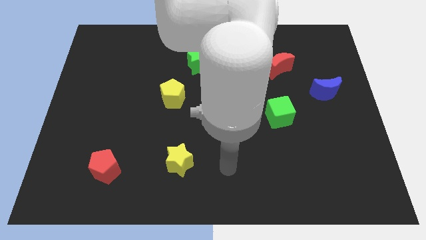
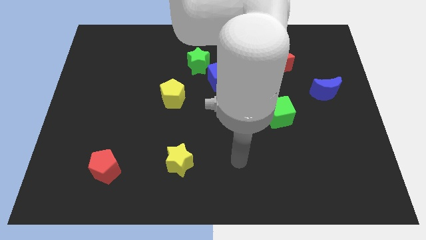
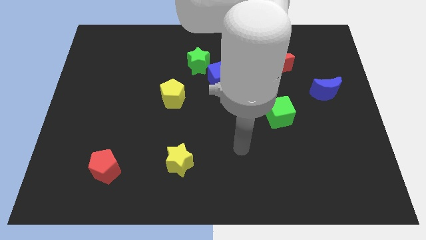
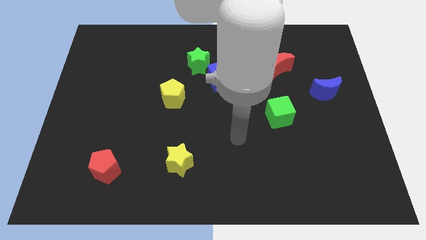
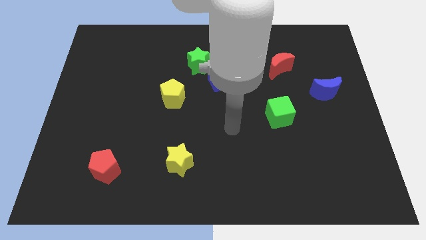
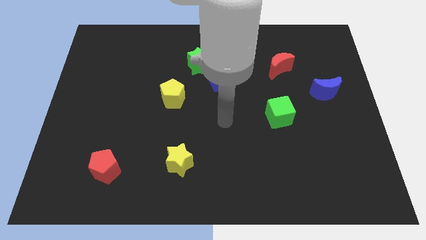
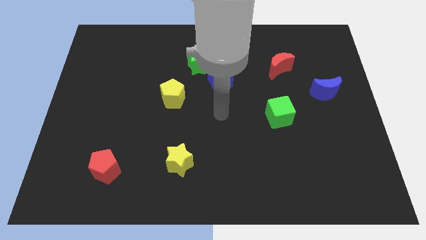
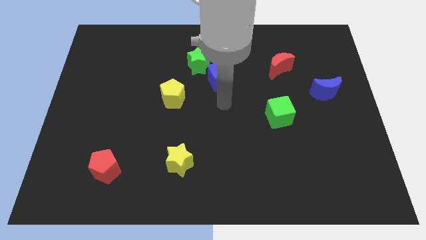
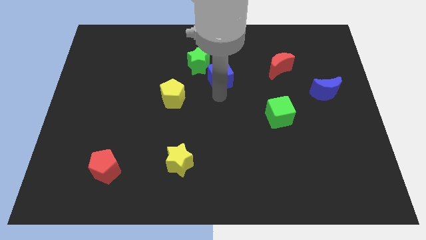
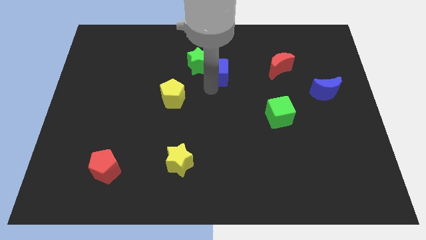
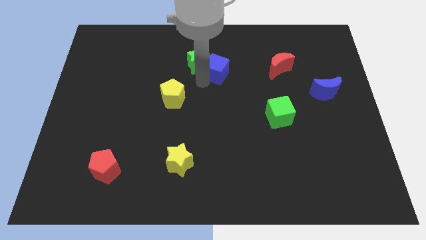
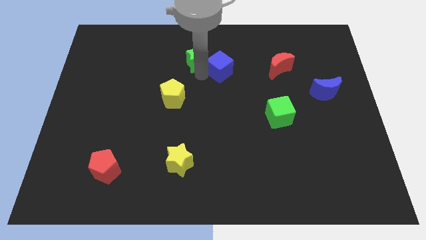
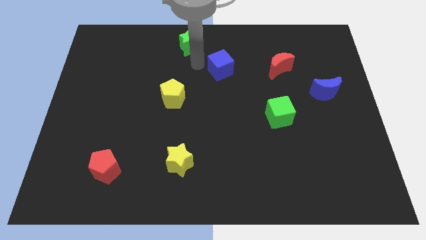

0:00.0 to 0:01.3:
move the blue cube away from the green star

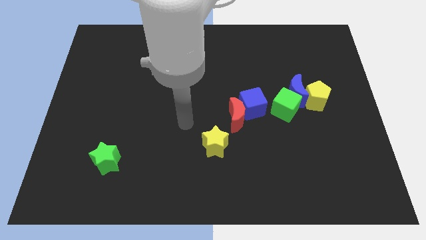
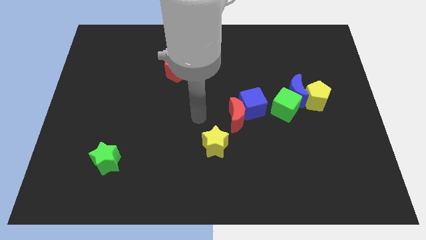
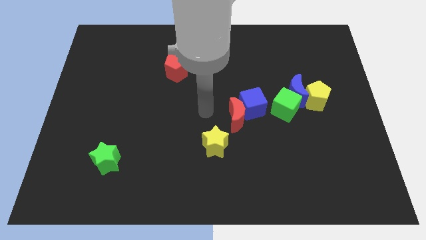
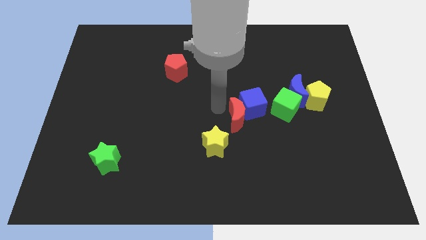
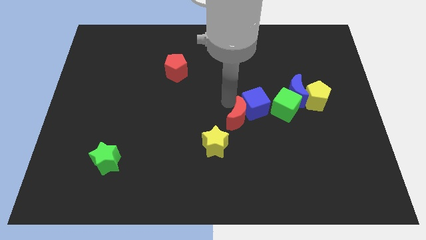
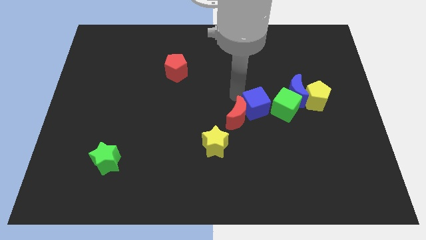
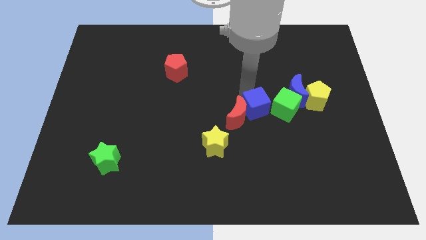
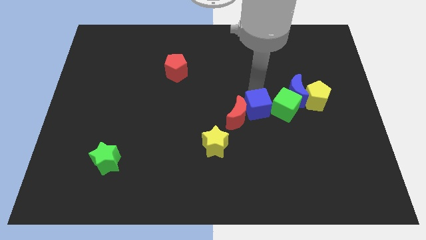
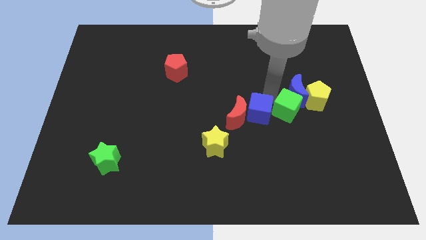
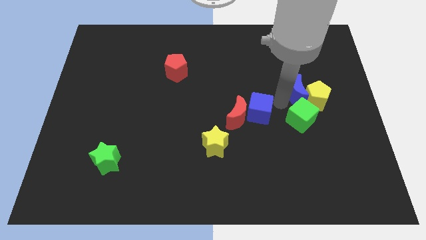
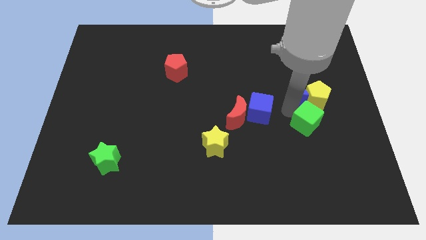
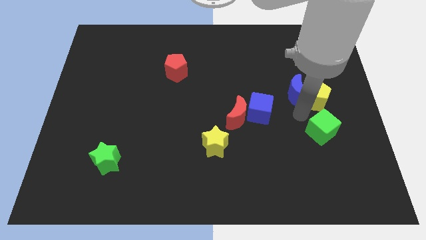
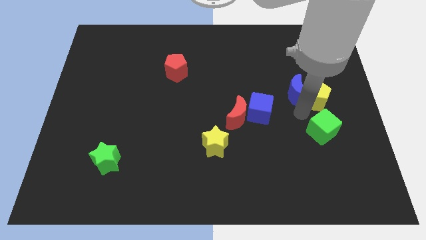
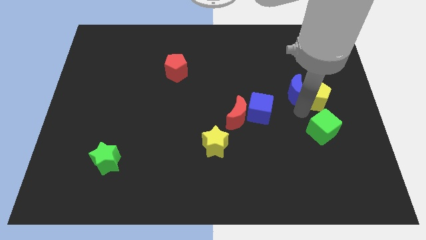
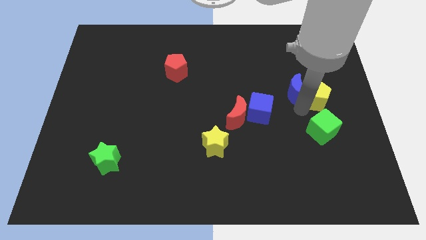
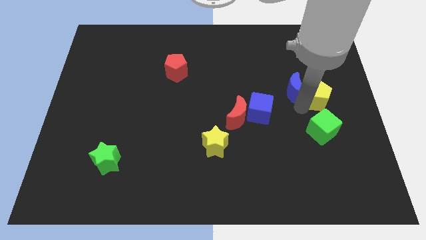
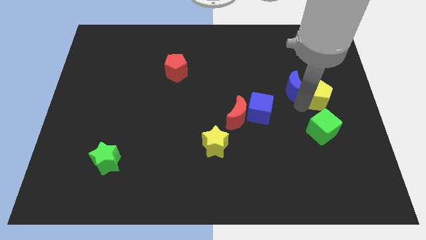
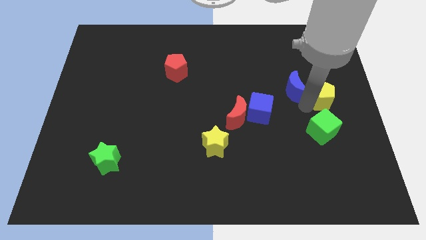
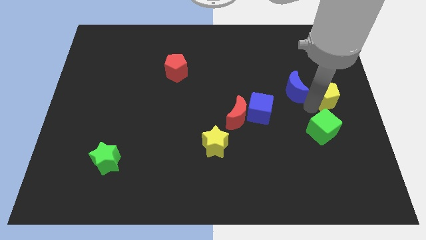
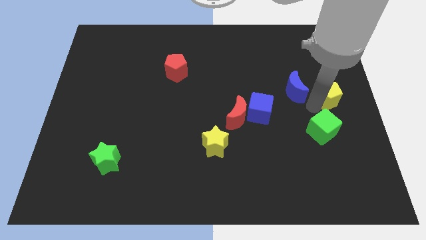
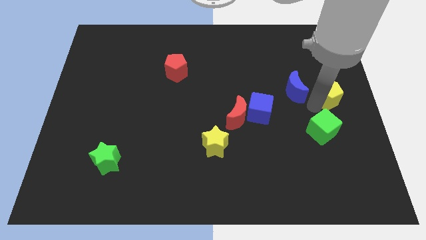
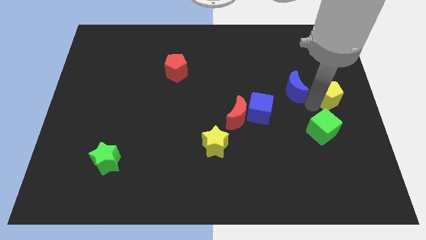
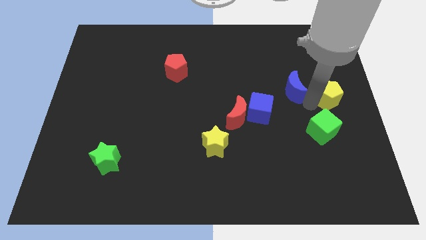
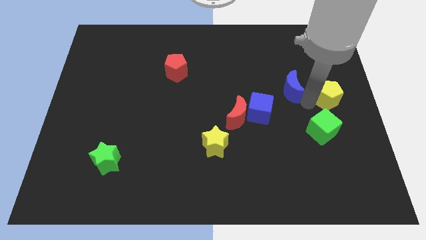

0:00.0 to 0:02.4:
separate the blue moon from the yellow pentagon and green cube

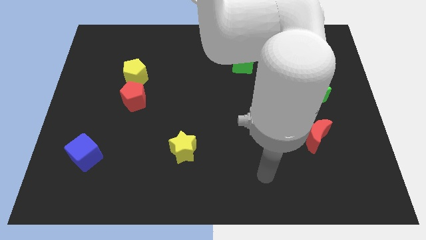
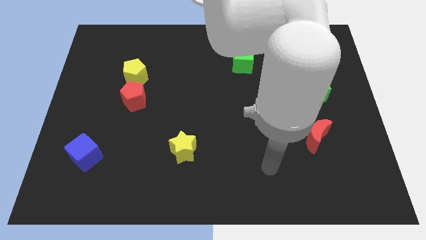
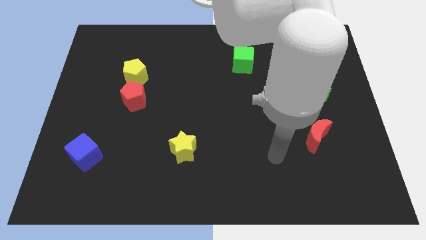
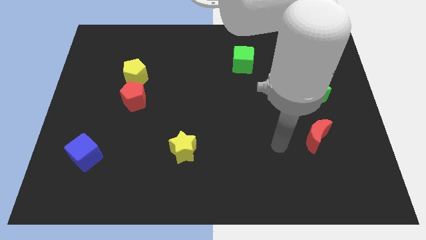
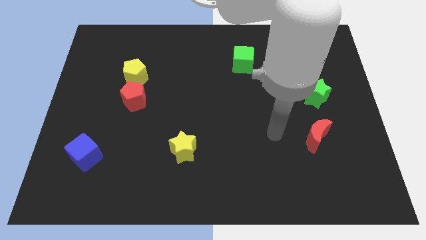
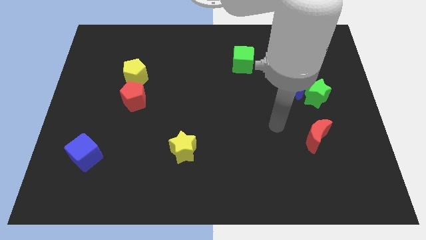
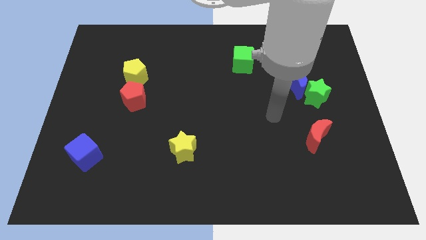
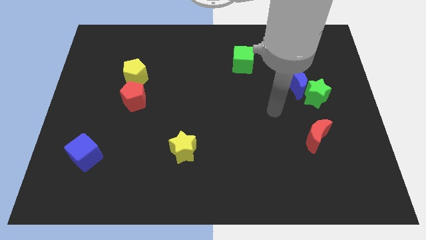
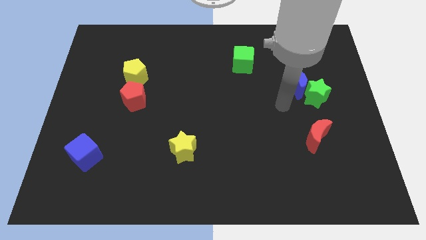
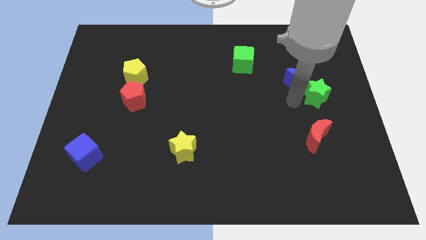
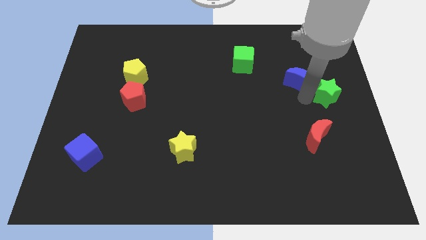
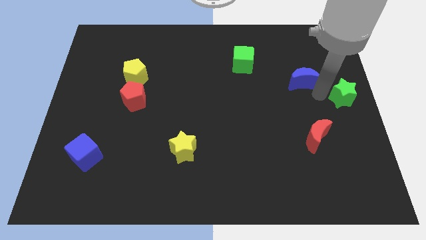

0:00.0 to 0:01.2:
separate the blue moon from the green star

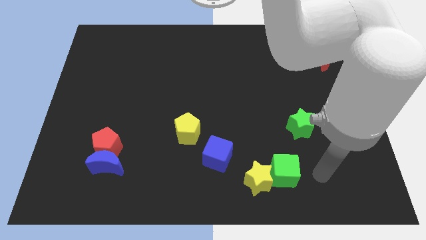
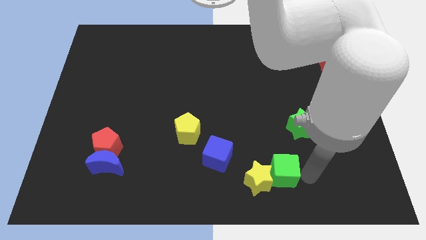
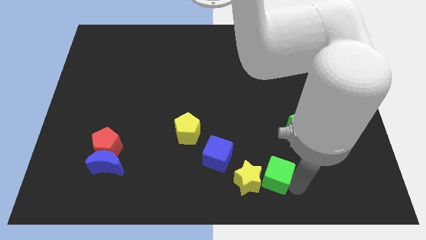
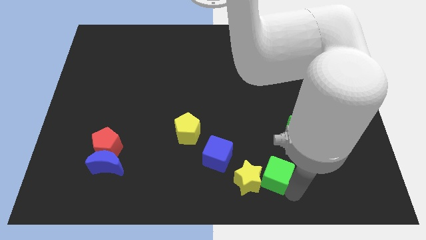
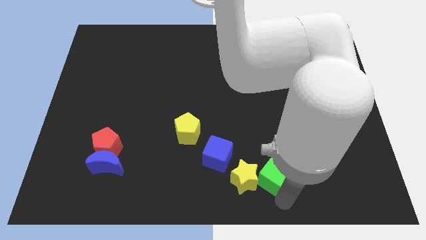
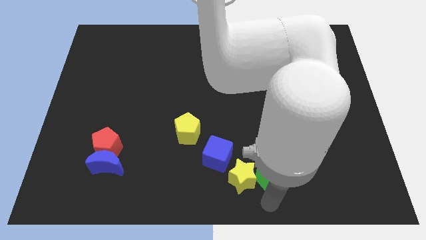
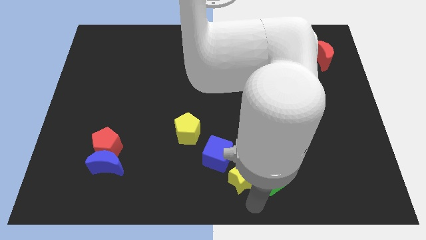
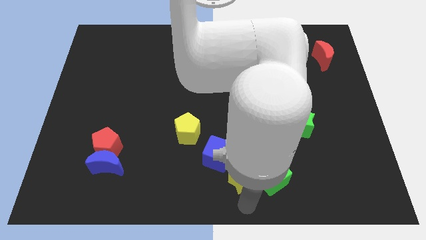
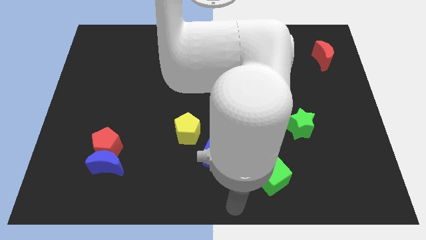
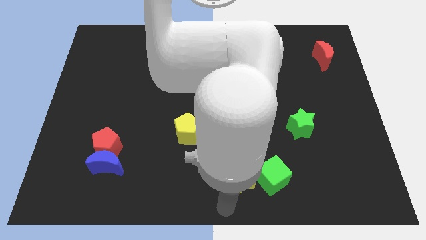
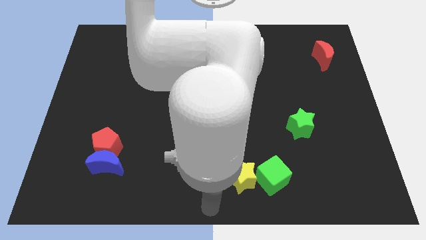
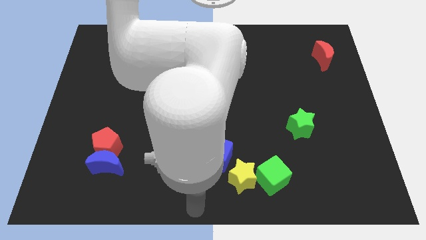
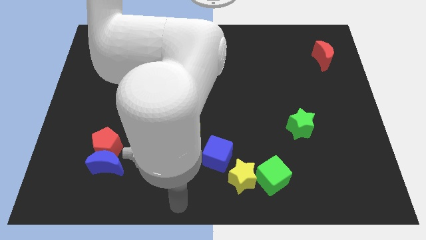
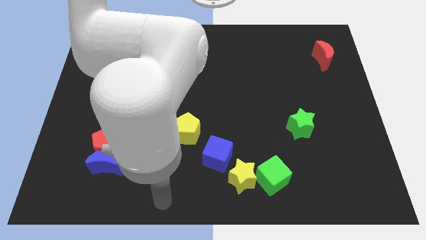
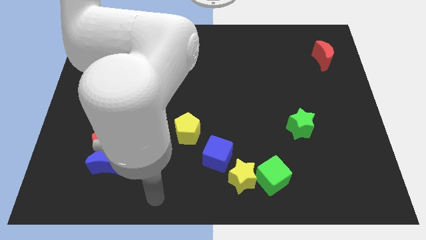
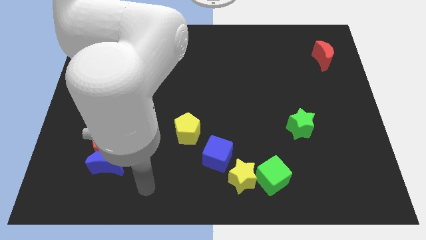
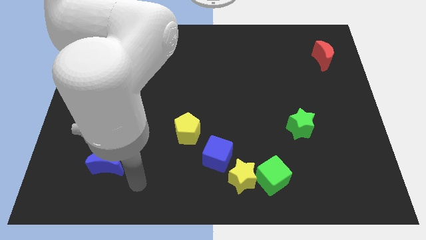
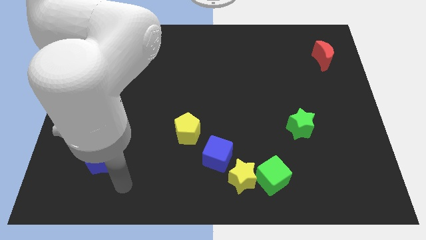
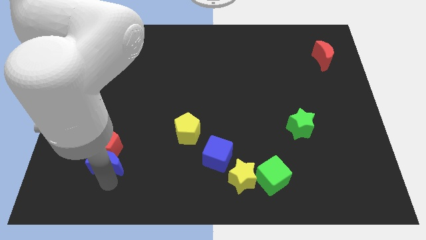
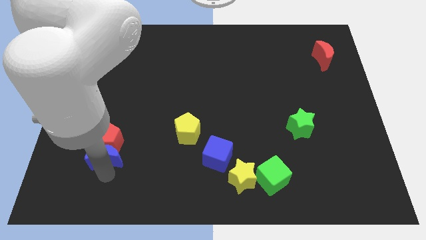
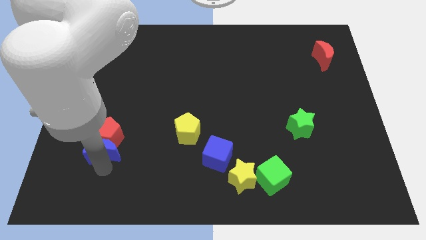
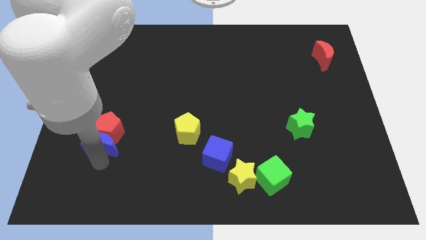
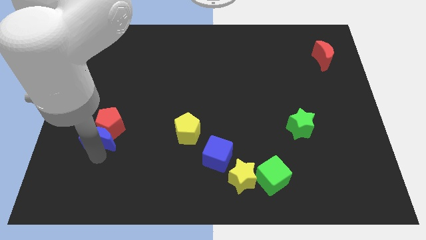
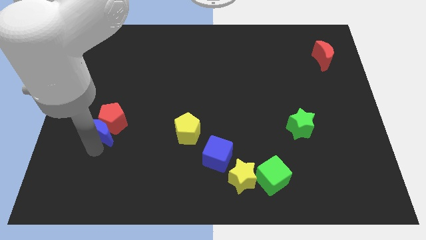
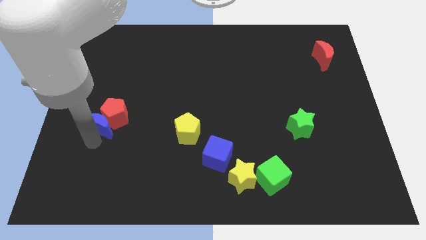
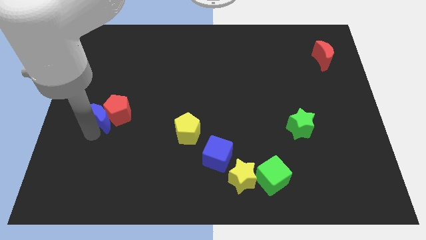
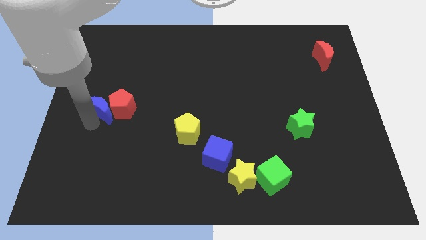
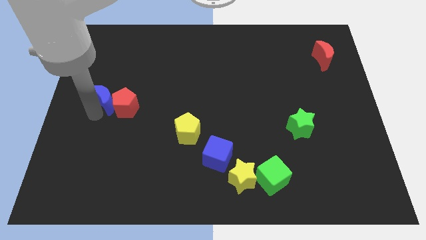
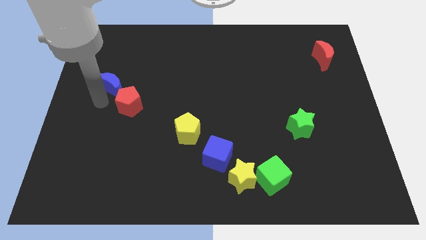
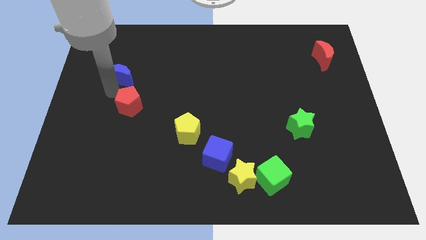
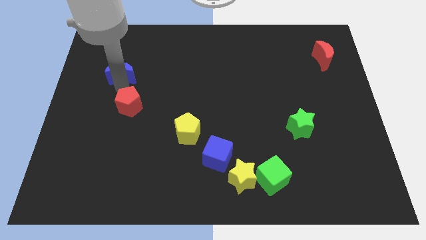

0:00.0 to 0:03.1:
separate the red pentagon from the blue moon

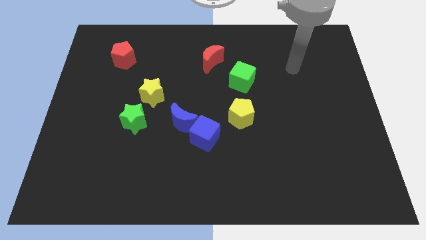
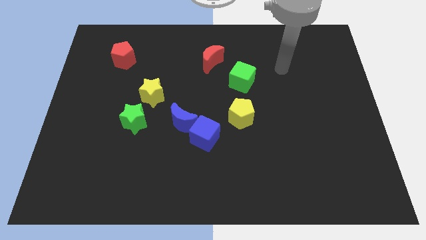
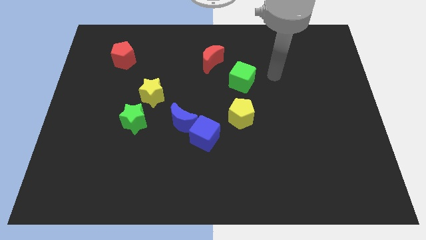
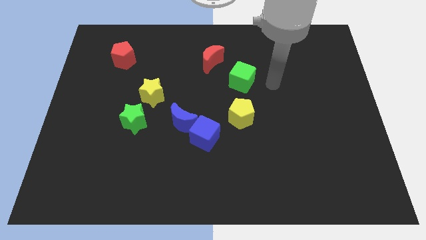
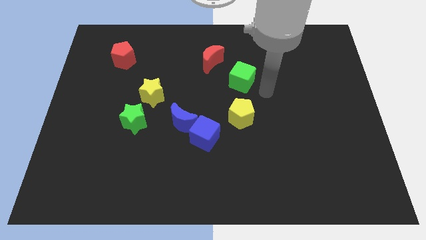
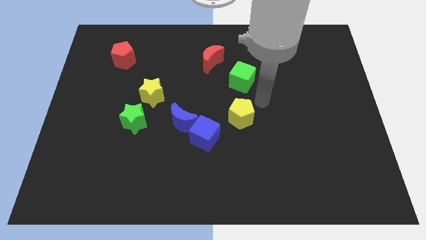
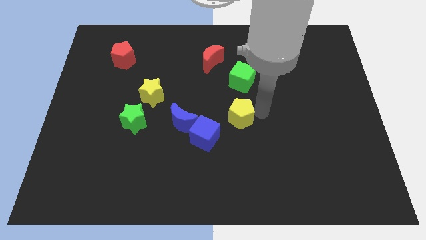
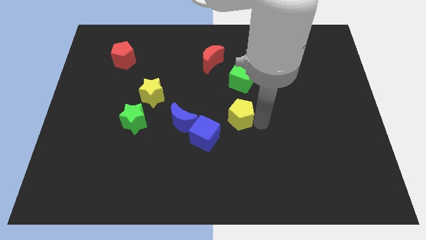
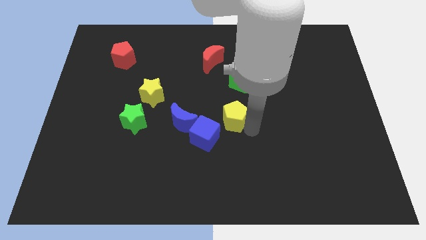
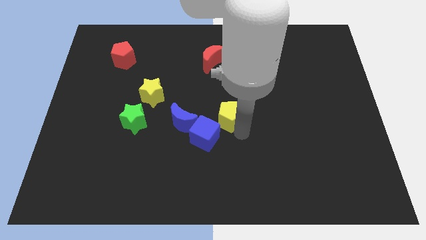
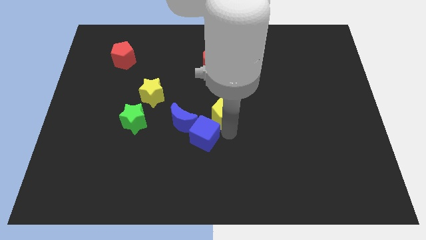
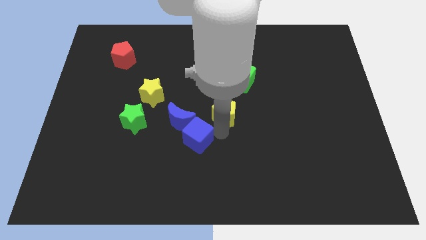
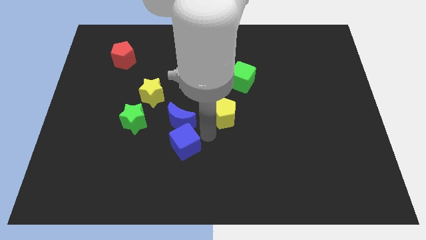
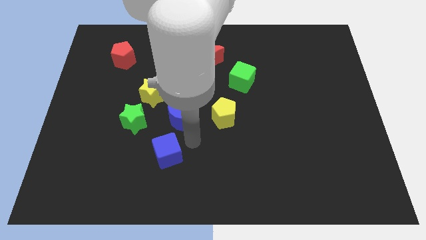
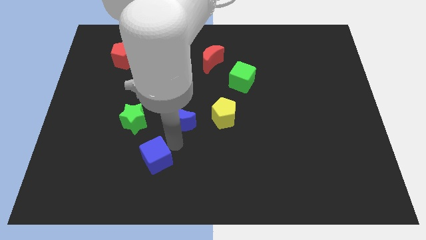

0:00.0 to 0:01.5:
move the blue moon away from the blue cube
